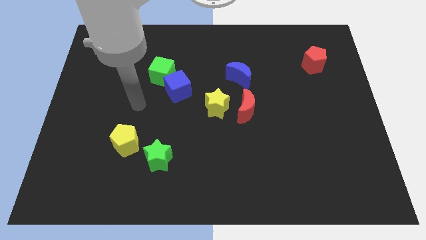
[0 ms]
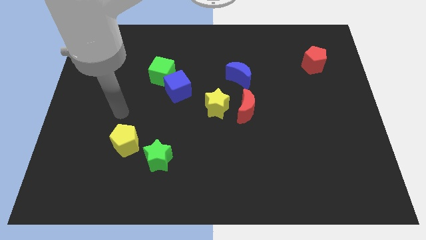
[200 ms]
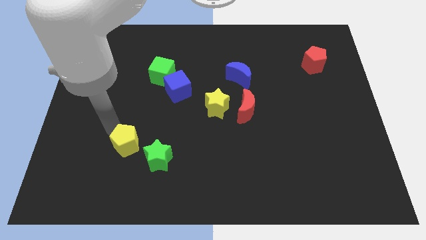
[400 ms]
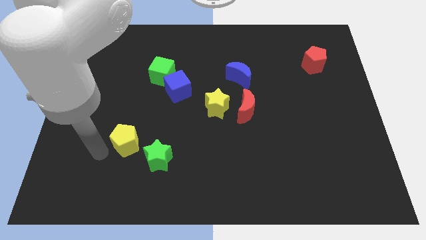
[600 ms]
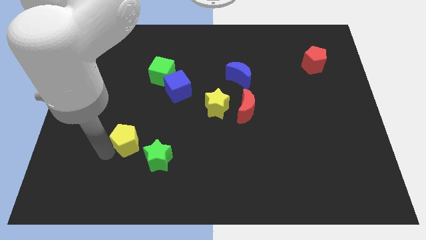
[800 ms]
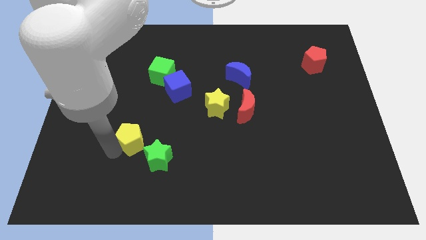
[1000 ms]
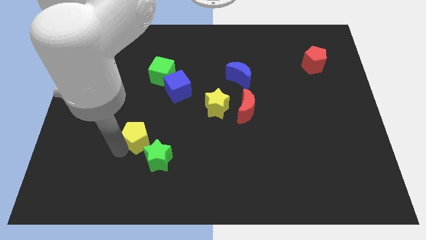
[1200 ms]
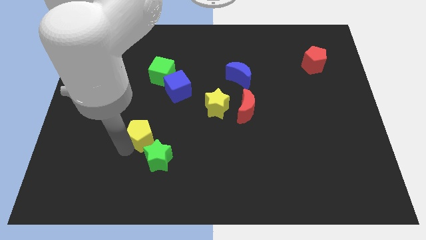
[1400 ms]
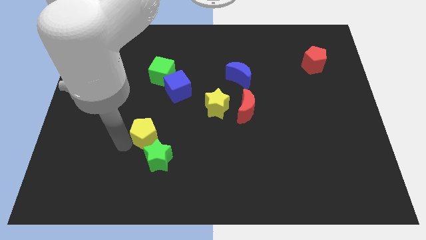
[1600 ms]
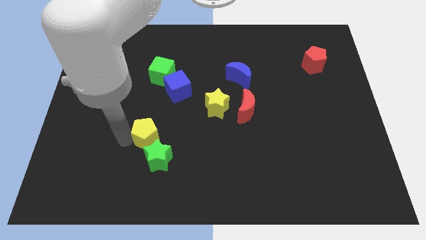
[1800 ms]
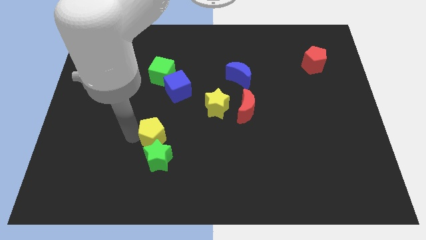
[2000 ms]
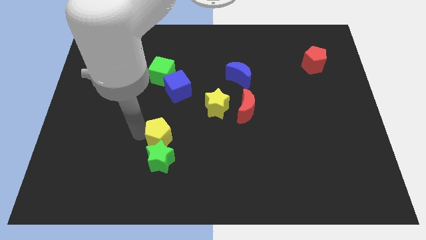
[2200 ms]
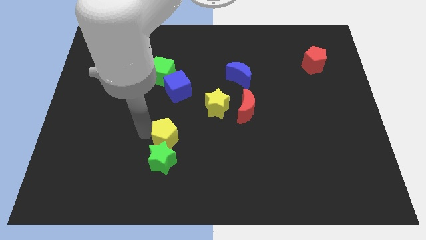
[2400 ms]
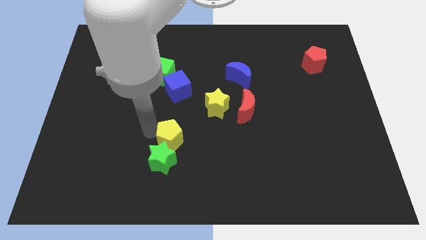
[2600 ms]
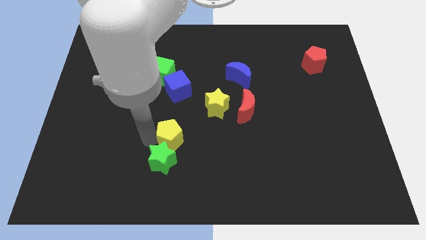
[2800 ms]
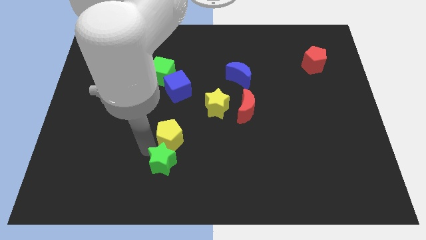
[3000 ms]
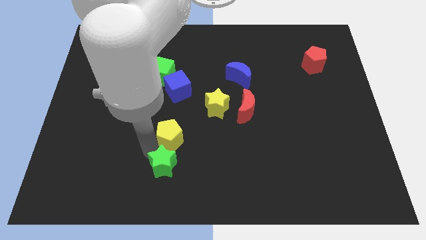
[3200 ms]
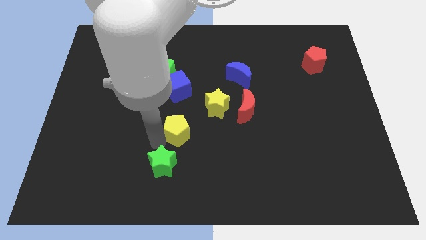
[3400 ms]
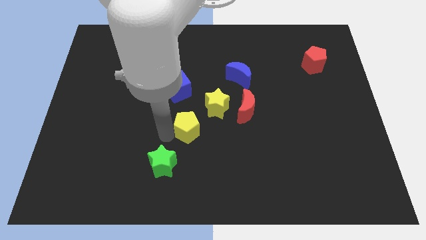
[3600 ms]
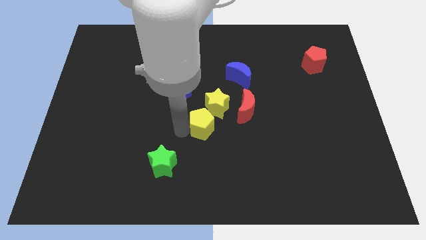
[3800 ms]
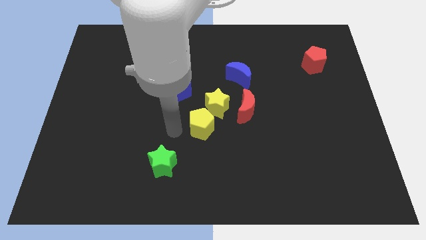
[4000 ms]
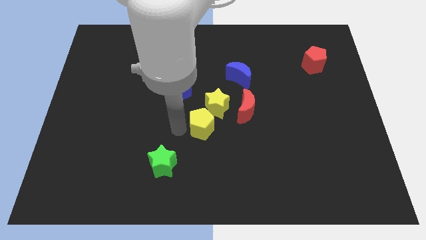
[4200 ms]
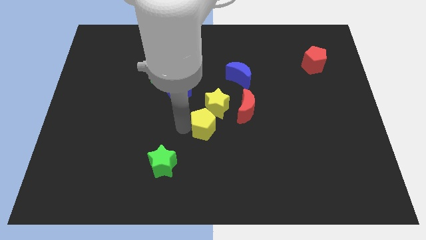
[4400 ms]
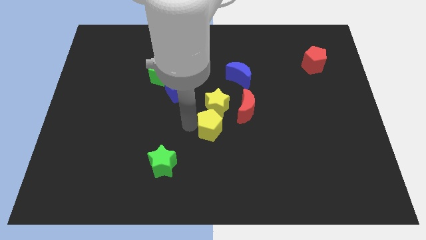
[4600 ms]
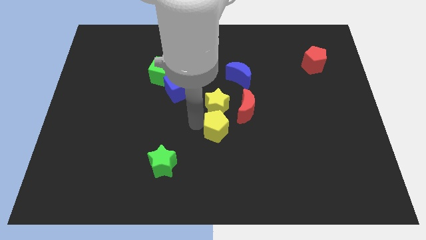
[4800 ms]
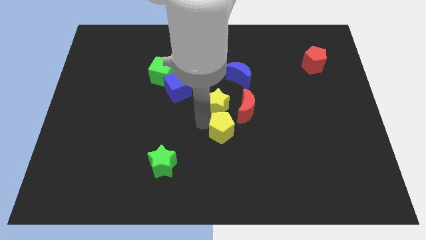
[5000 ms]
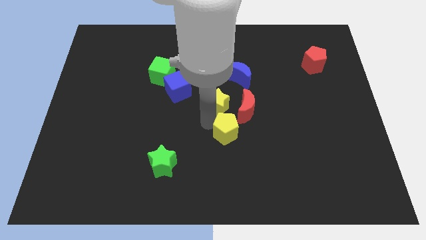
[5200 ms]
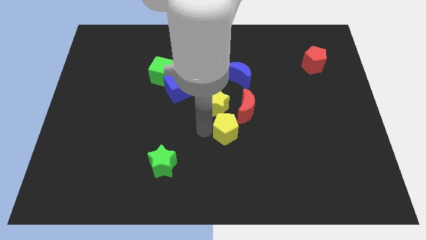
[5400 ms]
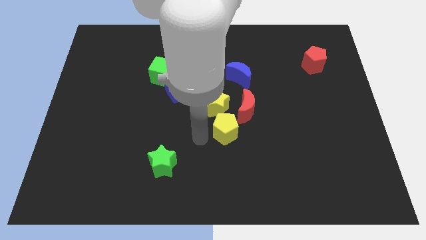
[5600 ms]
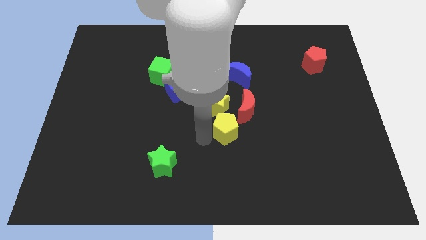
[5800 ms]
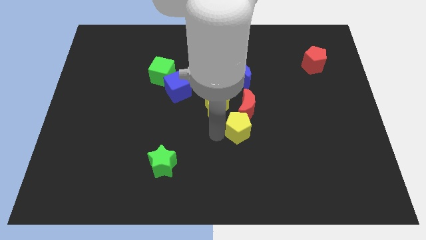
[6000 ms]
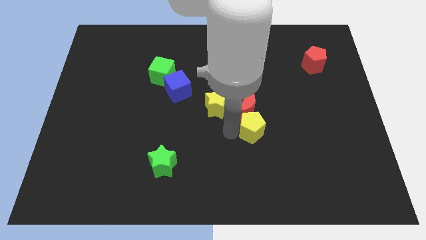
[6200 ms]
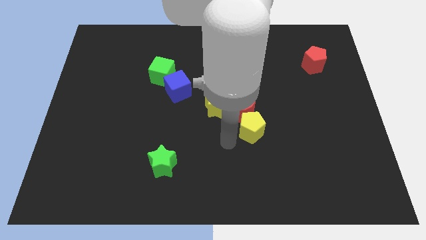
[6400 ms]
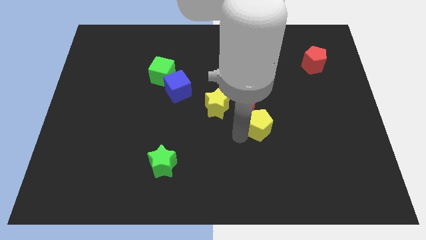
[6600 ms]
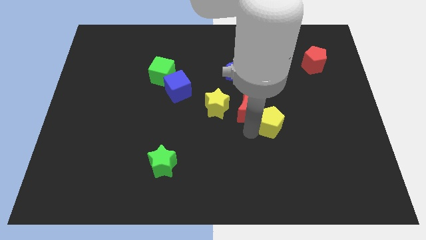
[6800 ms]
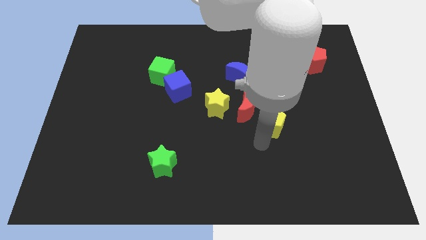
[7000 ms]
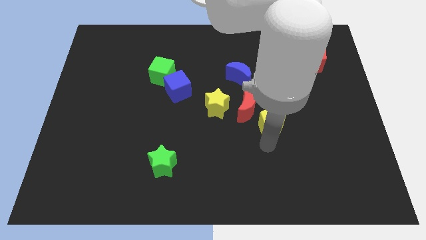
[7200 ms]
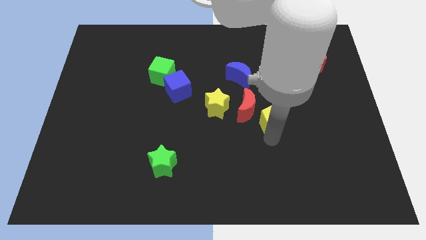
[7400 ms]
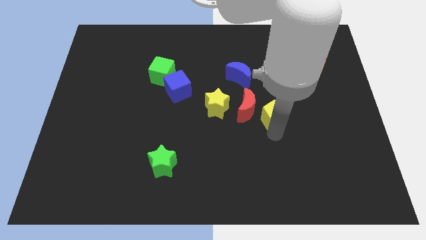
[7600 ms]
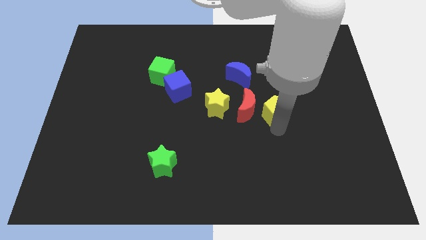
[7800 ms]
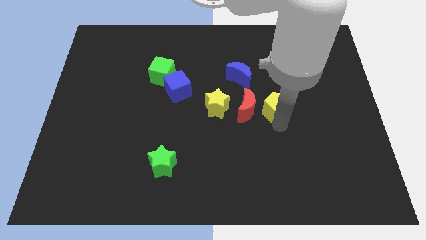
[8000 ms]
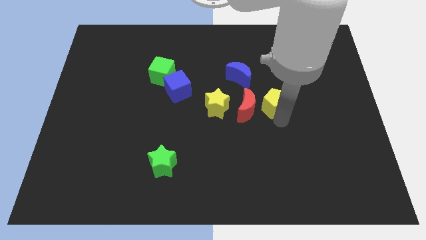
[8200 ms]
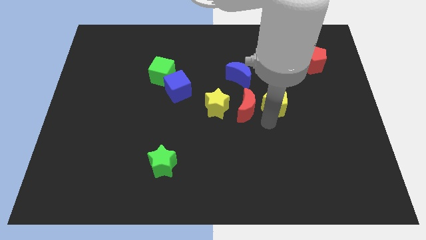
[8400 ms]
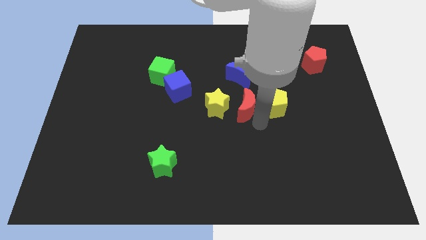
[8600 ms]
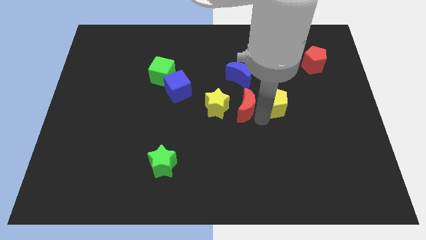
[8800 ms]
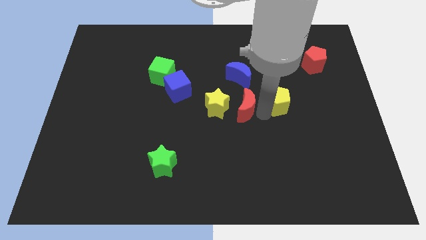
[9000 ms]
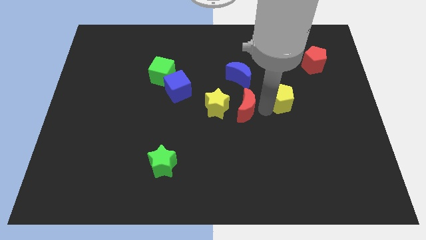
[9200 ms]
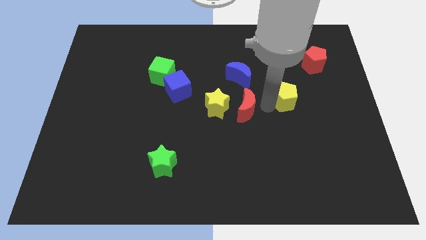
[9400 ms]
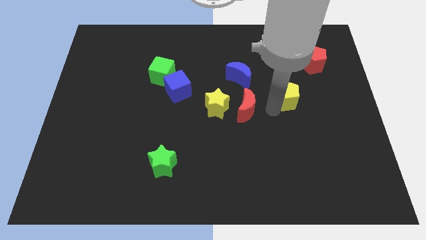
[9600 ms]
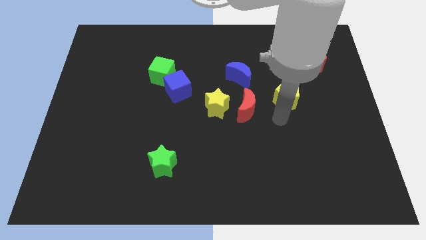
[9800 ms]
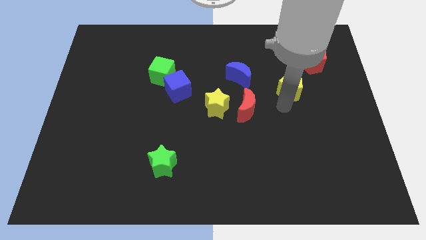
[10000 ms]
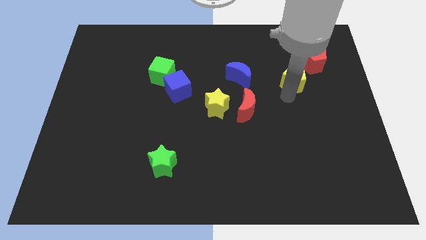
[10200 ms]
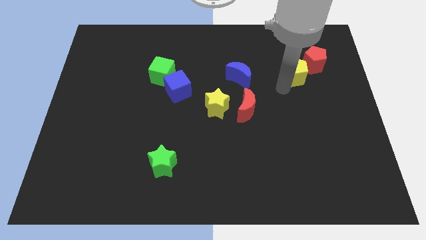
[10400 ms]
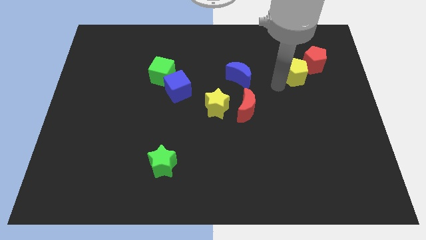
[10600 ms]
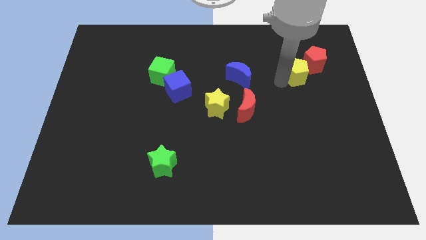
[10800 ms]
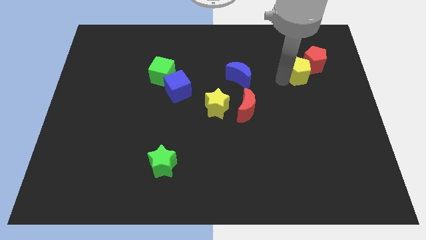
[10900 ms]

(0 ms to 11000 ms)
move the yellow pentagon close to the red pentagon

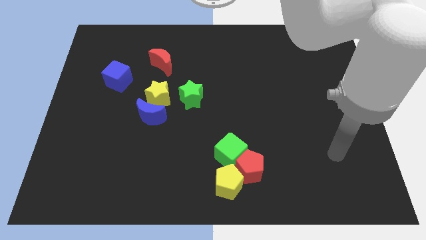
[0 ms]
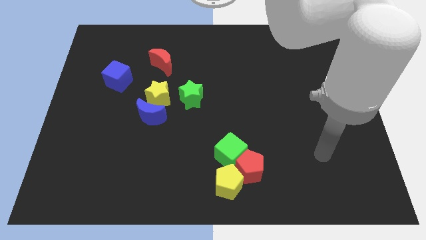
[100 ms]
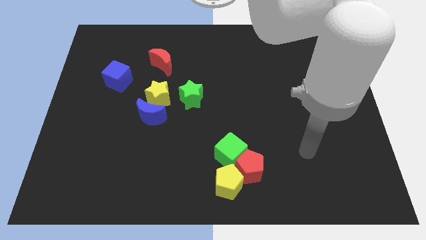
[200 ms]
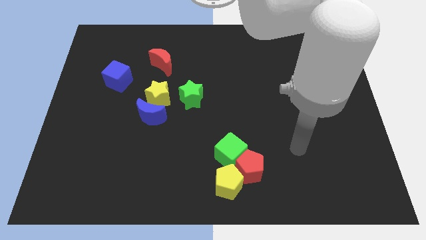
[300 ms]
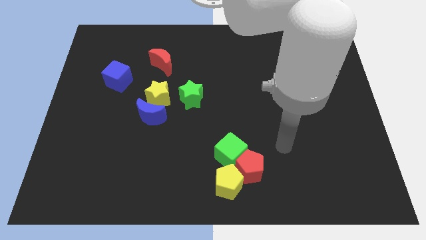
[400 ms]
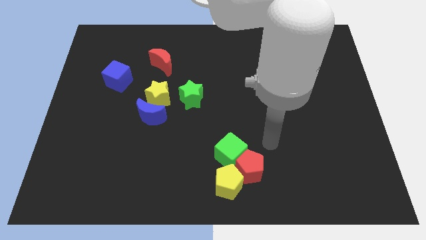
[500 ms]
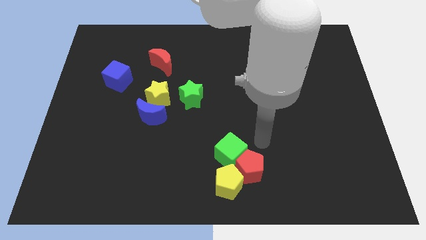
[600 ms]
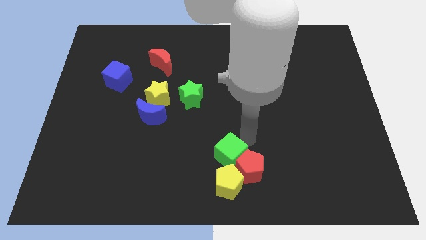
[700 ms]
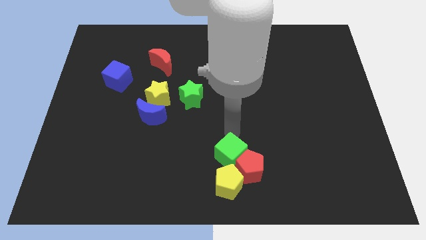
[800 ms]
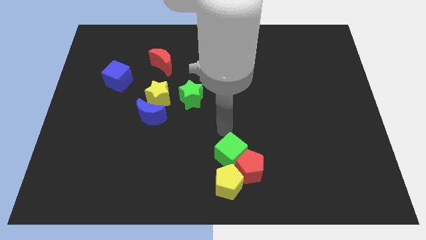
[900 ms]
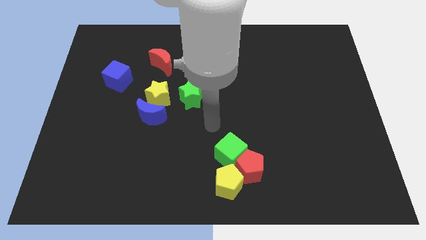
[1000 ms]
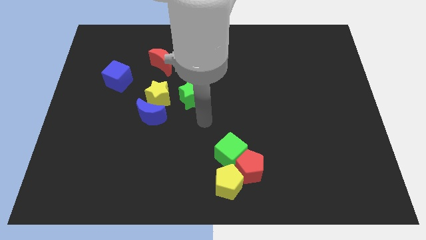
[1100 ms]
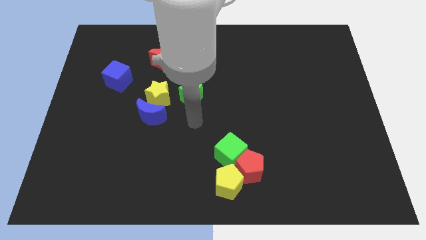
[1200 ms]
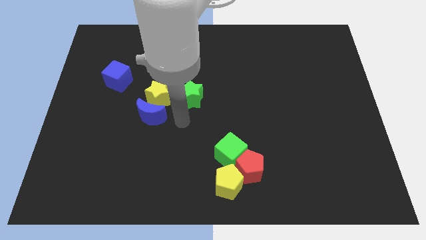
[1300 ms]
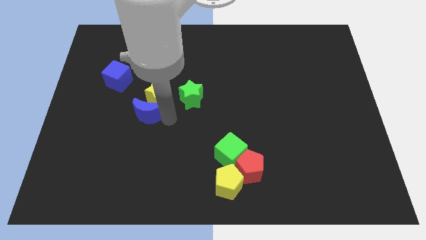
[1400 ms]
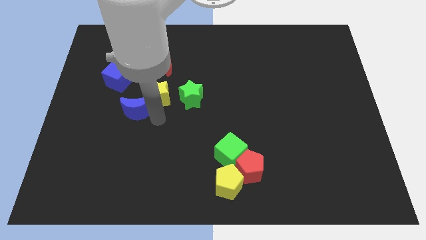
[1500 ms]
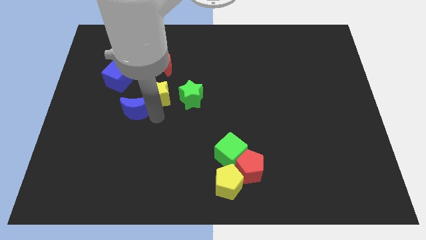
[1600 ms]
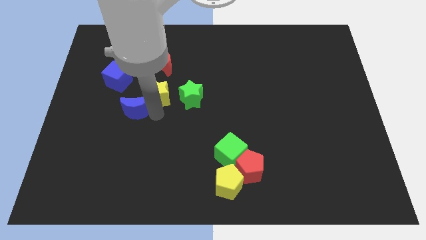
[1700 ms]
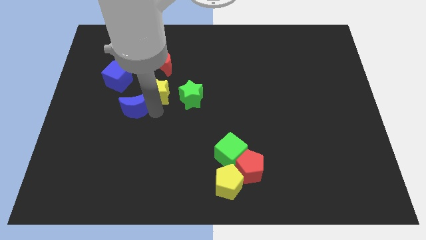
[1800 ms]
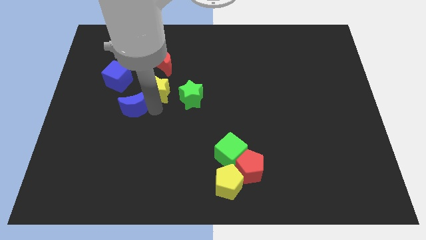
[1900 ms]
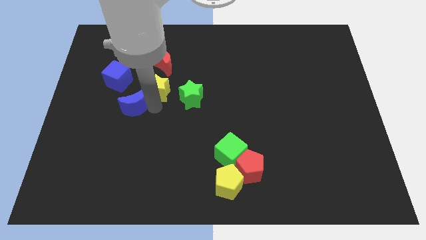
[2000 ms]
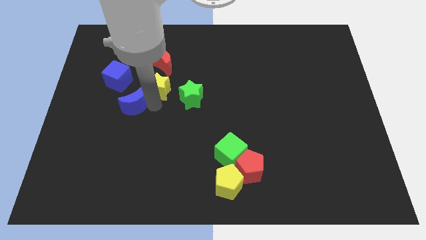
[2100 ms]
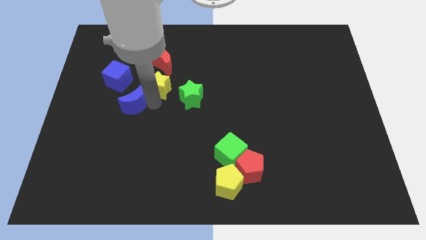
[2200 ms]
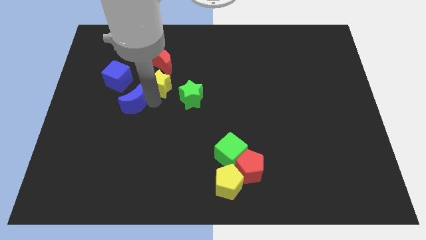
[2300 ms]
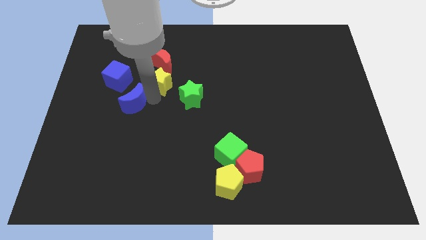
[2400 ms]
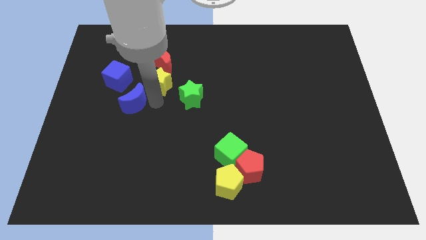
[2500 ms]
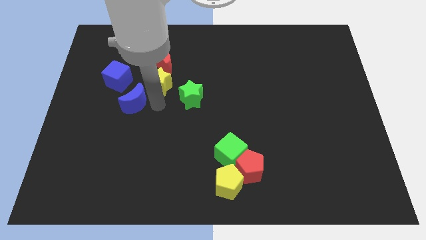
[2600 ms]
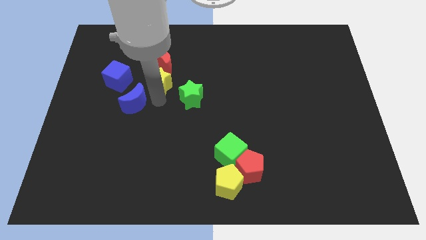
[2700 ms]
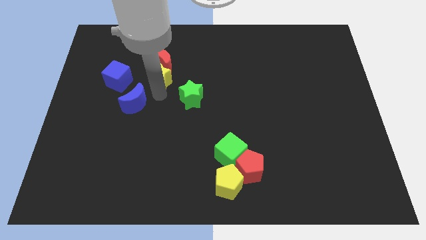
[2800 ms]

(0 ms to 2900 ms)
put the yellow star towards the red moon
